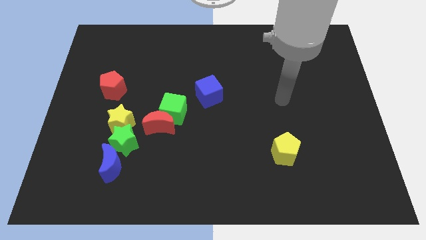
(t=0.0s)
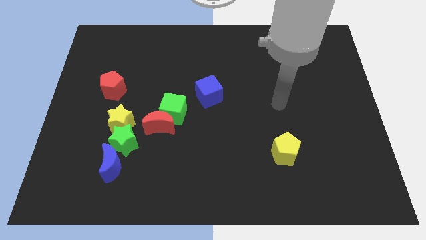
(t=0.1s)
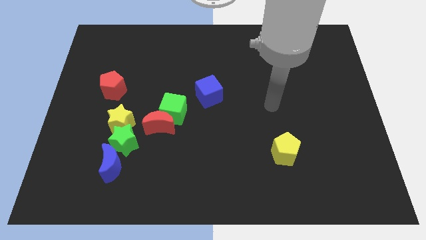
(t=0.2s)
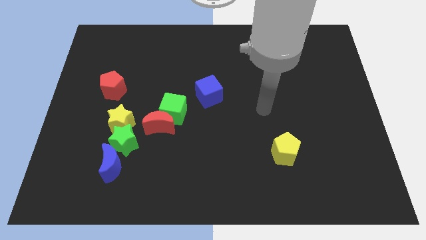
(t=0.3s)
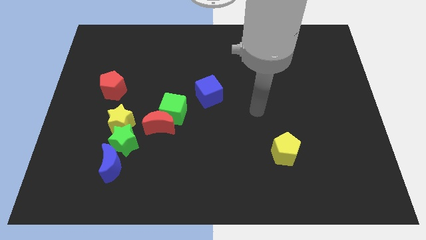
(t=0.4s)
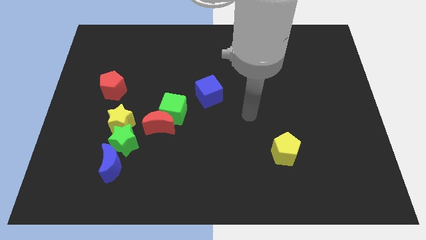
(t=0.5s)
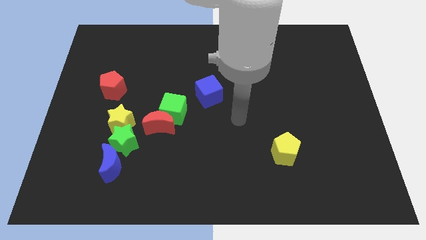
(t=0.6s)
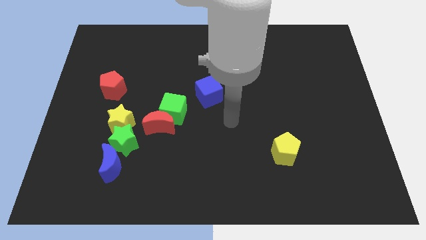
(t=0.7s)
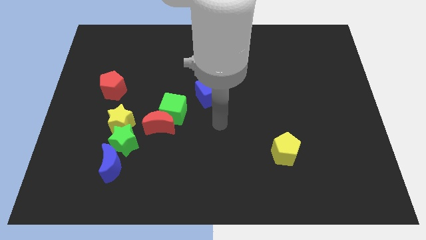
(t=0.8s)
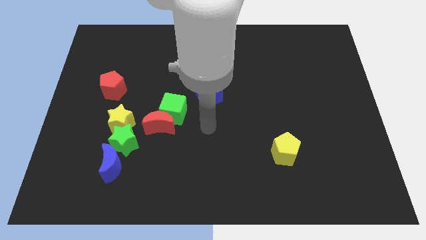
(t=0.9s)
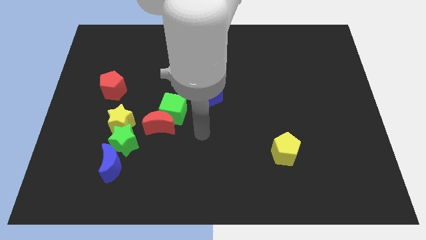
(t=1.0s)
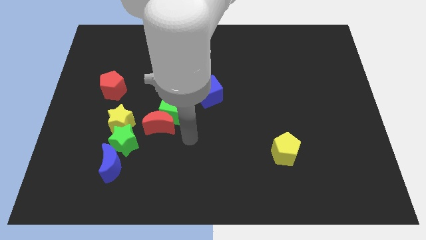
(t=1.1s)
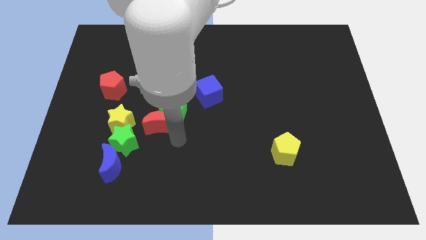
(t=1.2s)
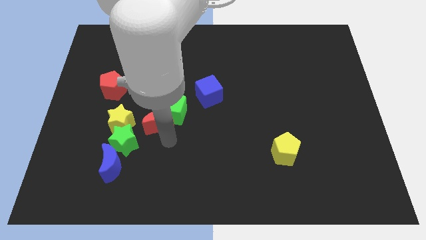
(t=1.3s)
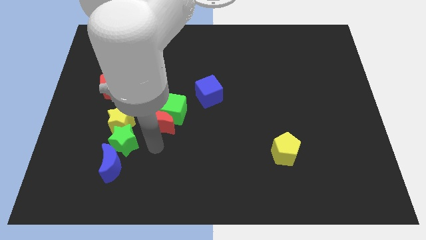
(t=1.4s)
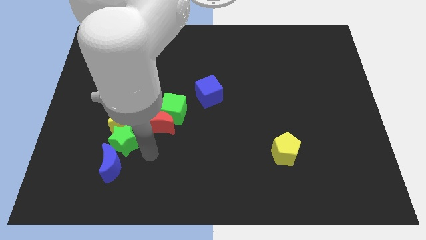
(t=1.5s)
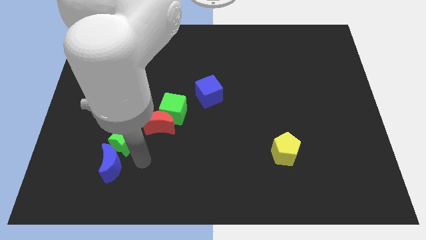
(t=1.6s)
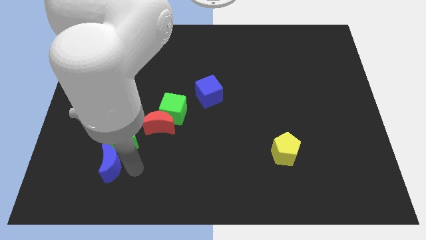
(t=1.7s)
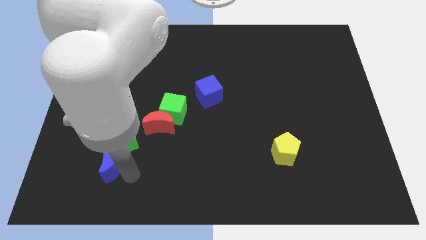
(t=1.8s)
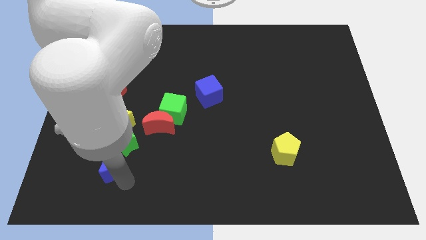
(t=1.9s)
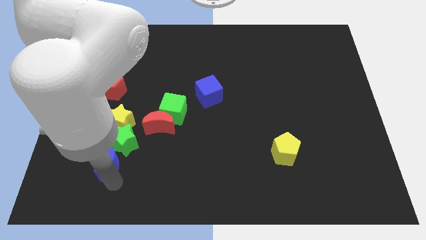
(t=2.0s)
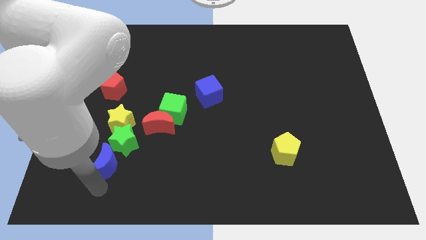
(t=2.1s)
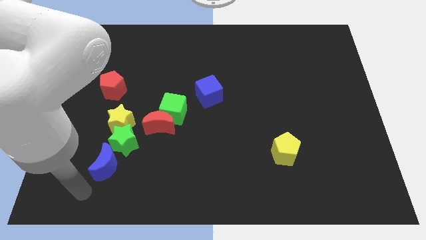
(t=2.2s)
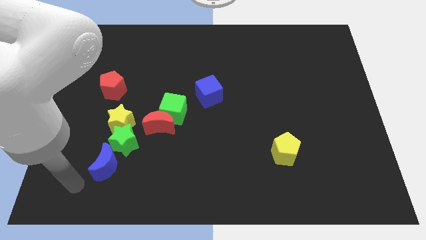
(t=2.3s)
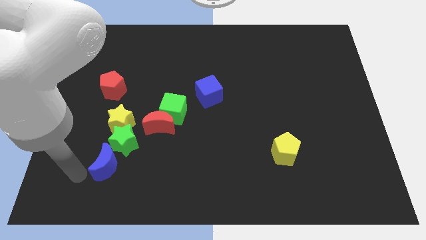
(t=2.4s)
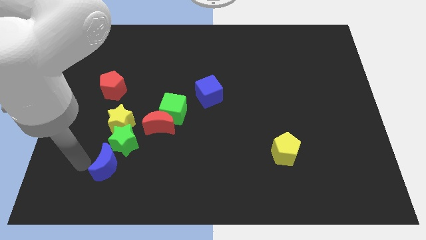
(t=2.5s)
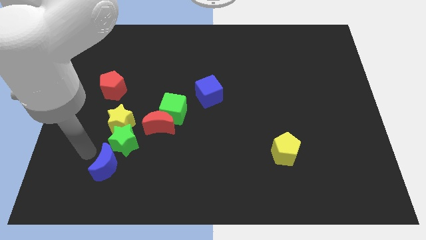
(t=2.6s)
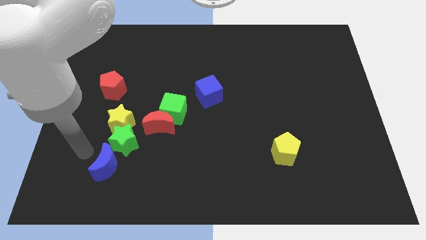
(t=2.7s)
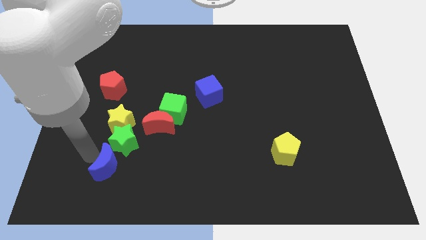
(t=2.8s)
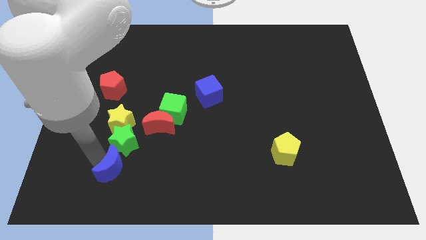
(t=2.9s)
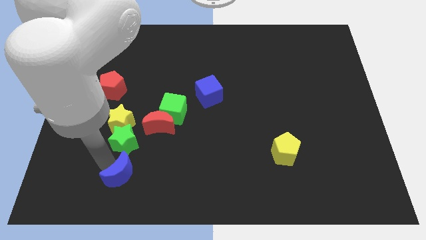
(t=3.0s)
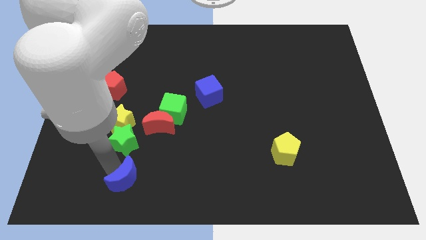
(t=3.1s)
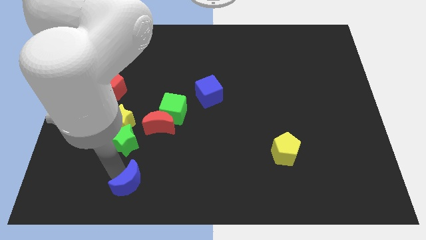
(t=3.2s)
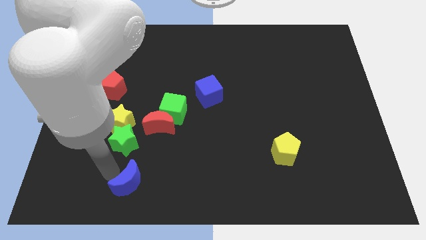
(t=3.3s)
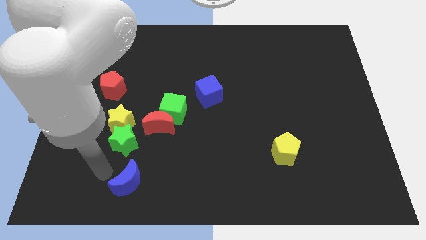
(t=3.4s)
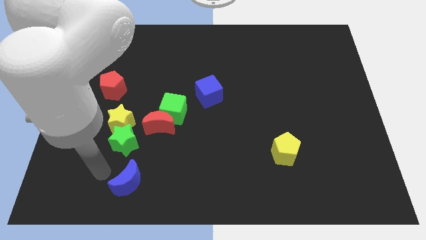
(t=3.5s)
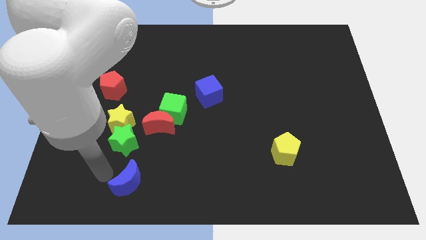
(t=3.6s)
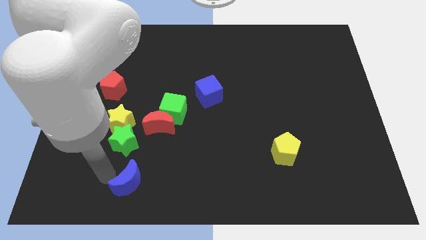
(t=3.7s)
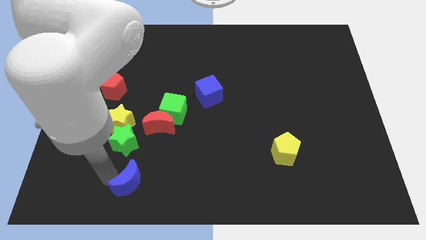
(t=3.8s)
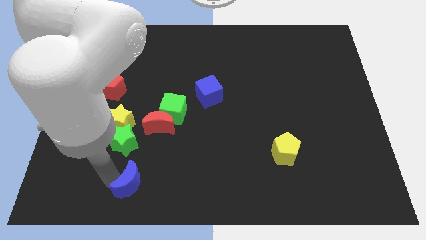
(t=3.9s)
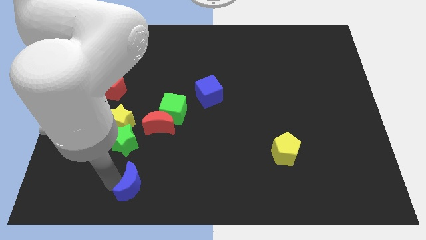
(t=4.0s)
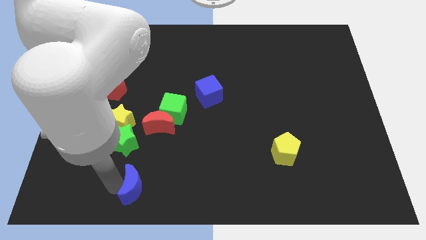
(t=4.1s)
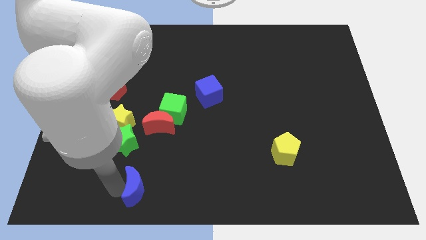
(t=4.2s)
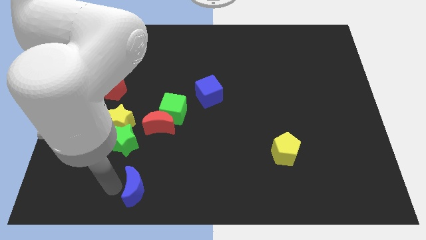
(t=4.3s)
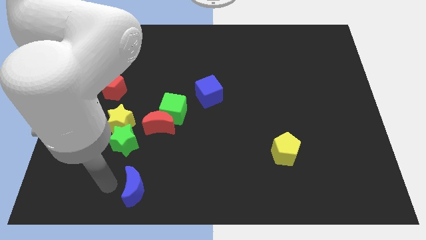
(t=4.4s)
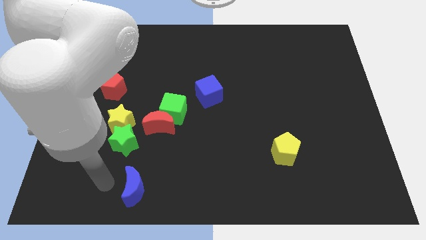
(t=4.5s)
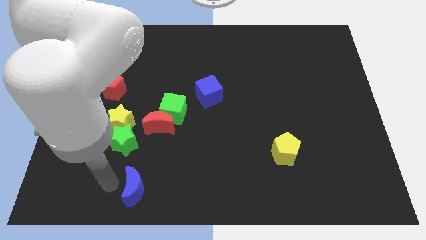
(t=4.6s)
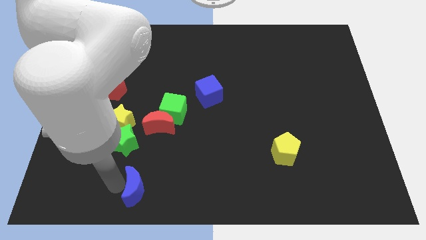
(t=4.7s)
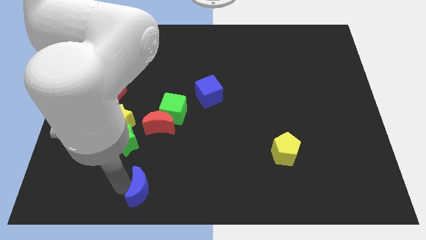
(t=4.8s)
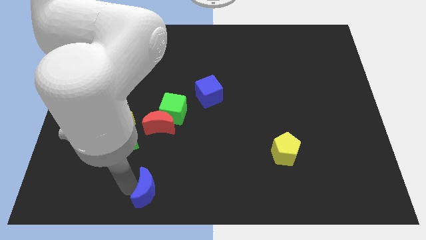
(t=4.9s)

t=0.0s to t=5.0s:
slide the blue moon to the bottom side

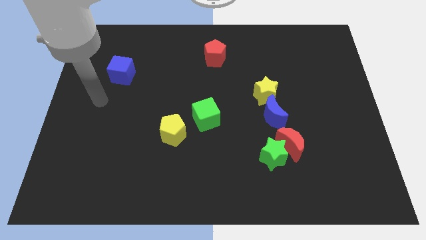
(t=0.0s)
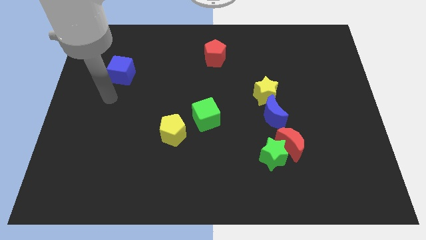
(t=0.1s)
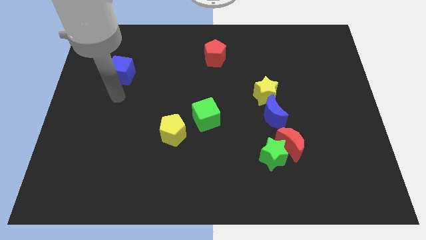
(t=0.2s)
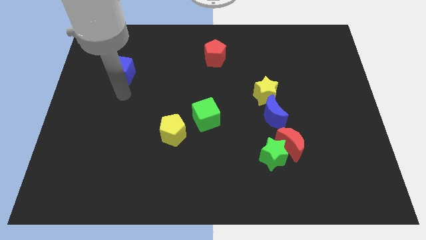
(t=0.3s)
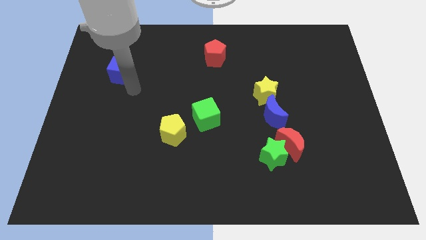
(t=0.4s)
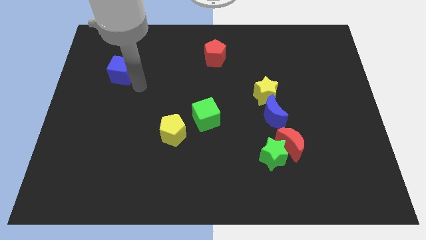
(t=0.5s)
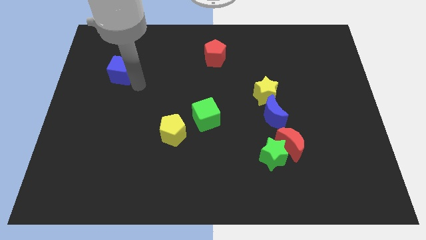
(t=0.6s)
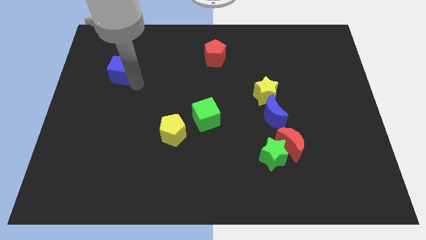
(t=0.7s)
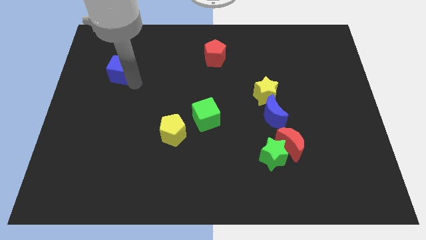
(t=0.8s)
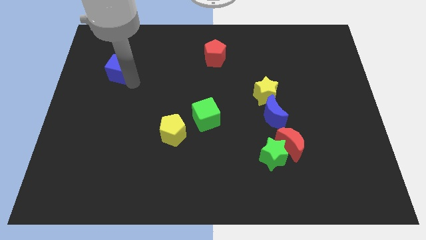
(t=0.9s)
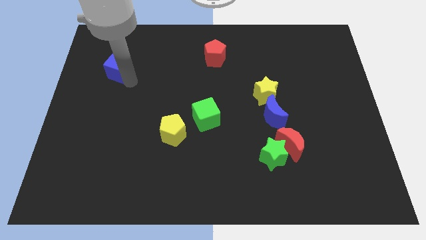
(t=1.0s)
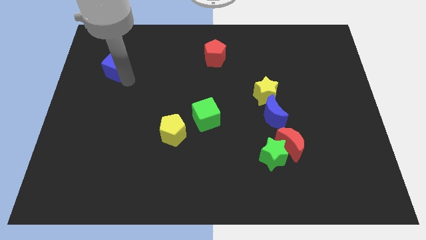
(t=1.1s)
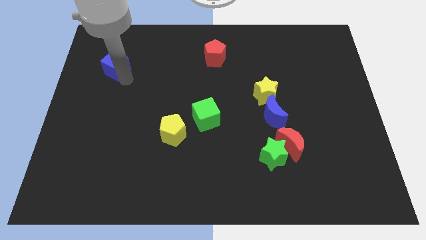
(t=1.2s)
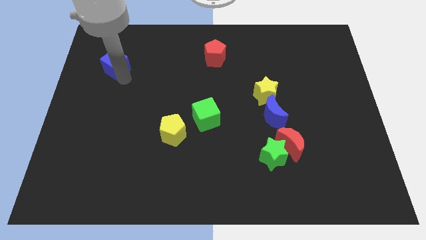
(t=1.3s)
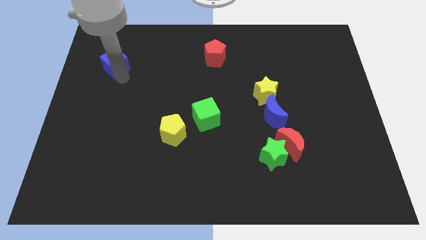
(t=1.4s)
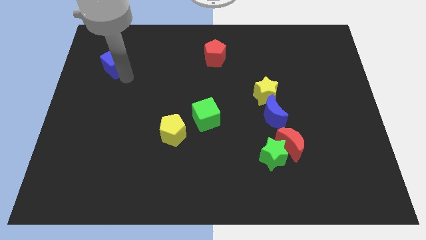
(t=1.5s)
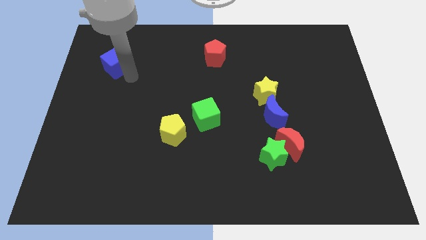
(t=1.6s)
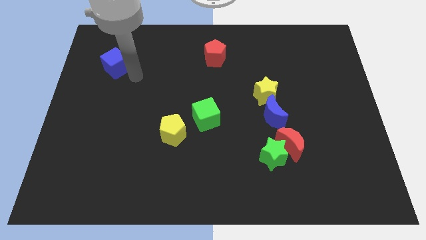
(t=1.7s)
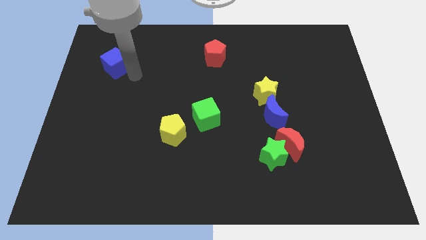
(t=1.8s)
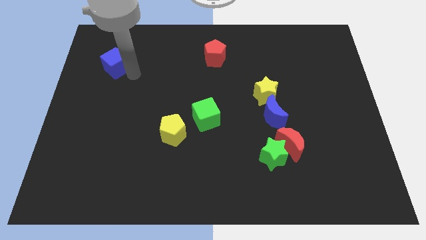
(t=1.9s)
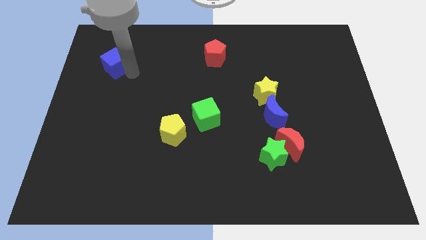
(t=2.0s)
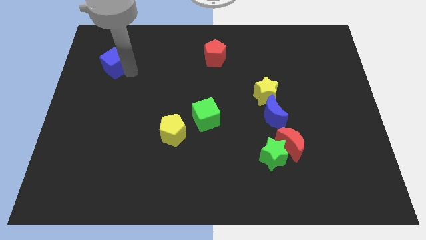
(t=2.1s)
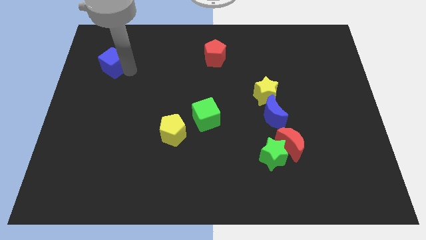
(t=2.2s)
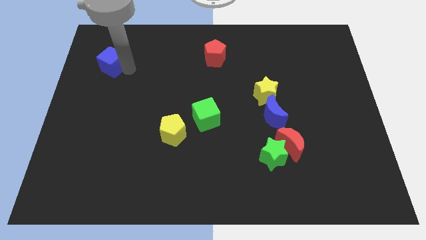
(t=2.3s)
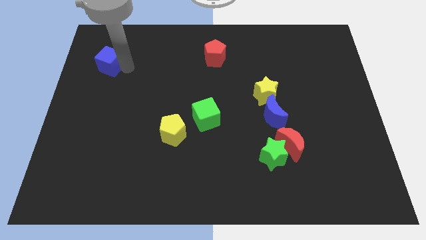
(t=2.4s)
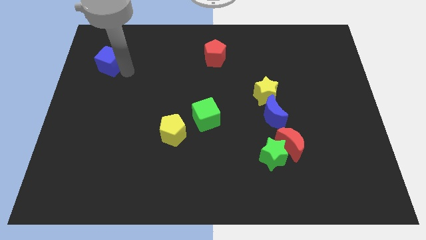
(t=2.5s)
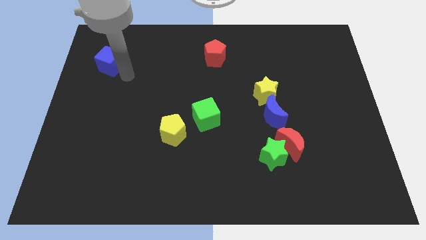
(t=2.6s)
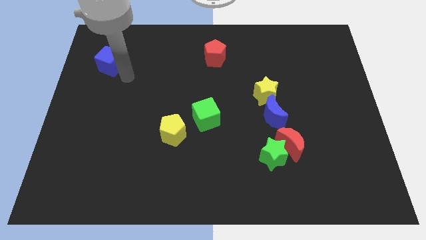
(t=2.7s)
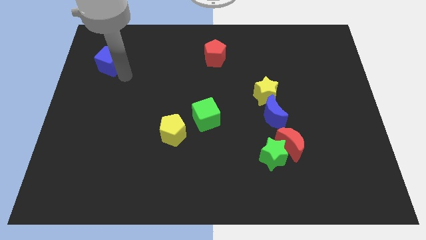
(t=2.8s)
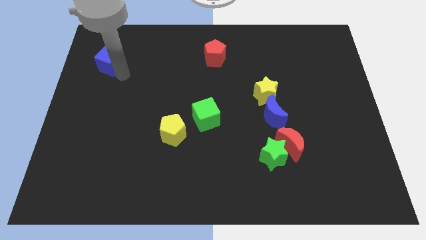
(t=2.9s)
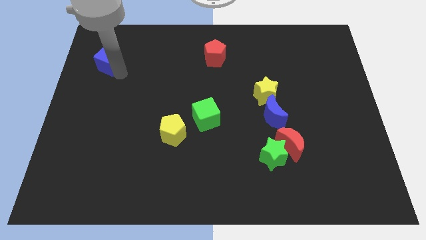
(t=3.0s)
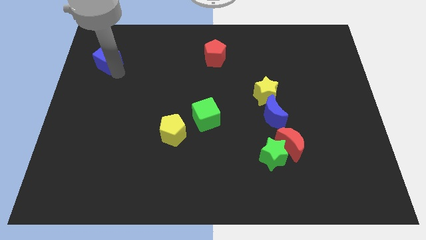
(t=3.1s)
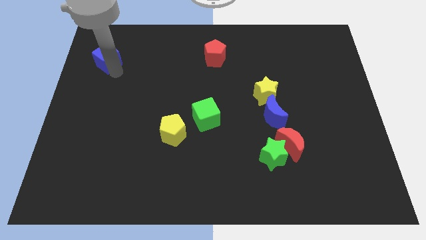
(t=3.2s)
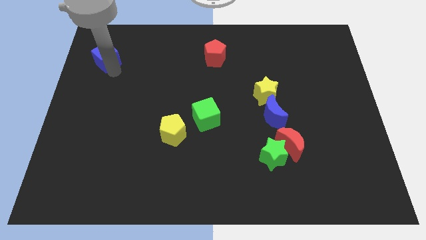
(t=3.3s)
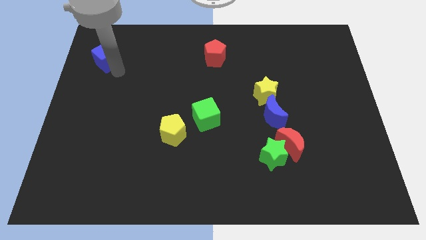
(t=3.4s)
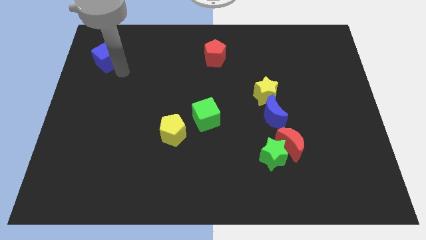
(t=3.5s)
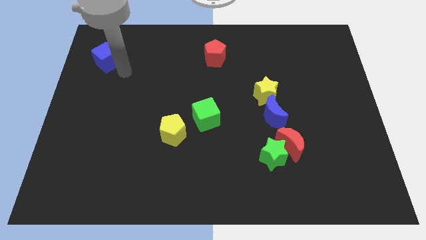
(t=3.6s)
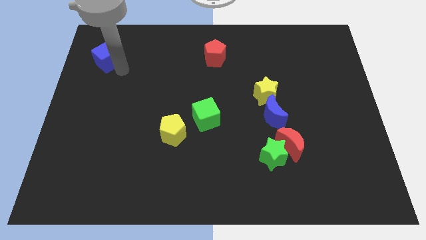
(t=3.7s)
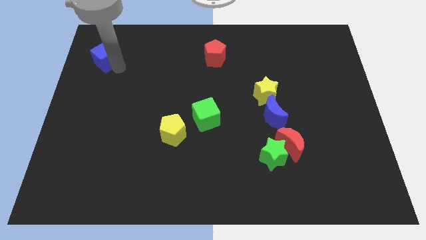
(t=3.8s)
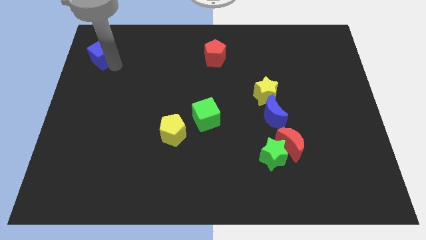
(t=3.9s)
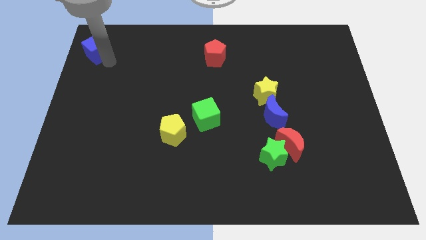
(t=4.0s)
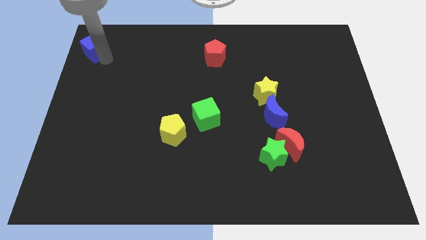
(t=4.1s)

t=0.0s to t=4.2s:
put the blue cube to the top left
